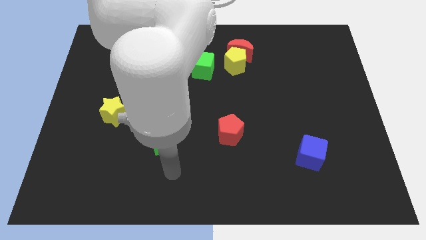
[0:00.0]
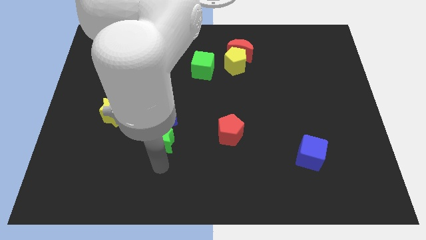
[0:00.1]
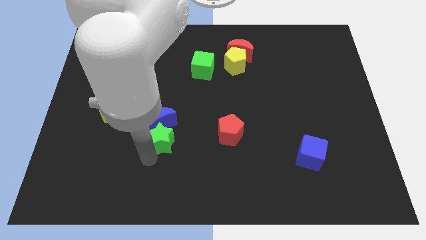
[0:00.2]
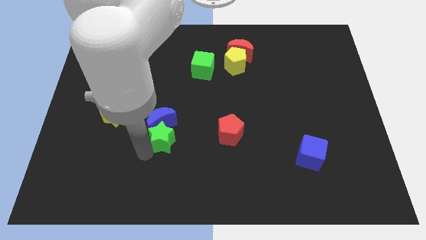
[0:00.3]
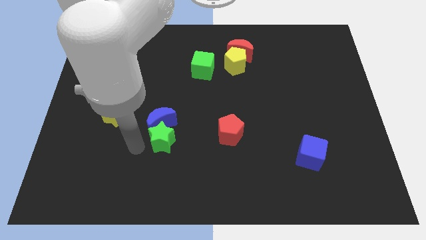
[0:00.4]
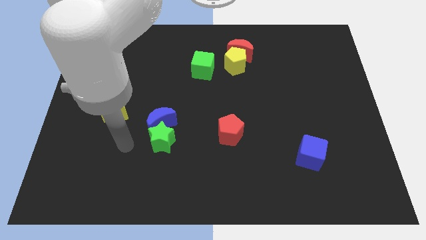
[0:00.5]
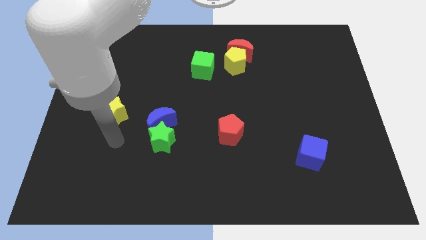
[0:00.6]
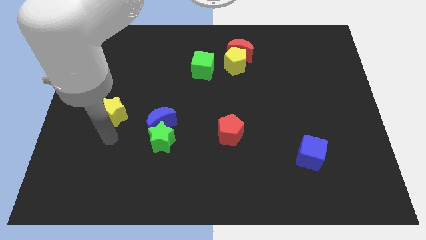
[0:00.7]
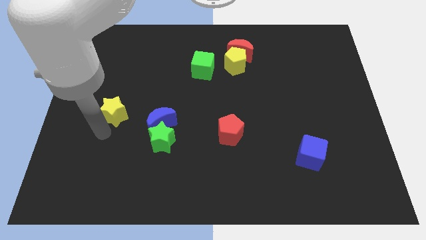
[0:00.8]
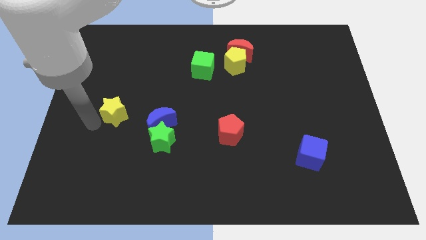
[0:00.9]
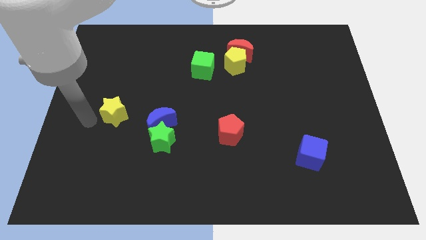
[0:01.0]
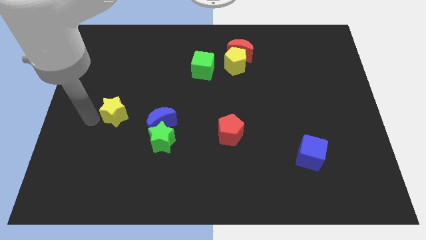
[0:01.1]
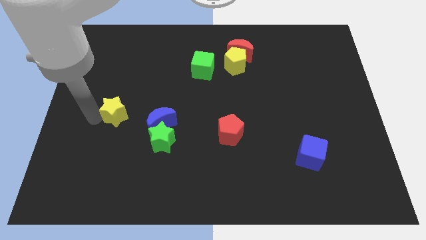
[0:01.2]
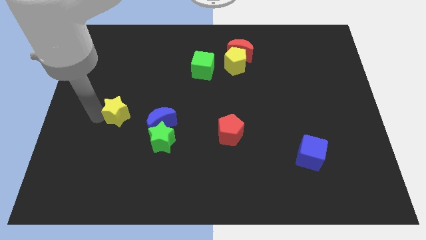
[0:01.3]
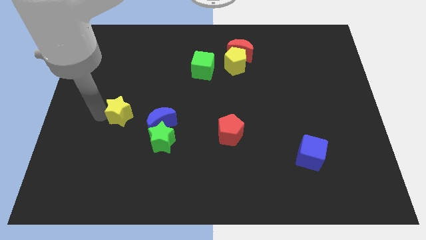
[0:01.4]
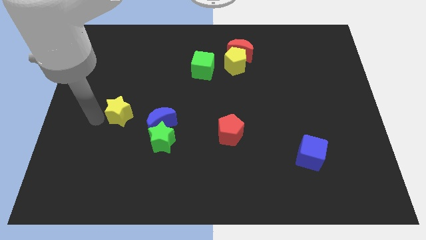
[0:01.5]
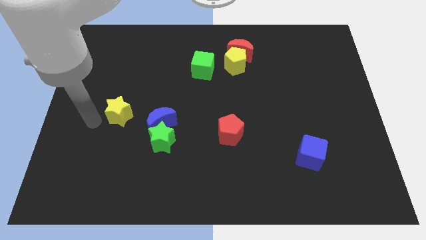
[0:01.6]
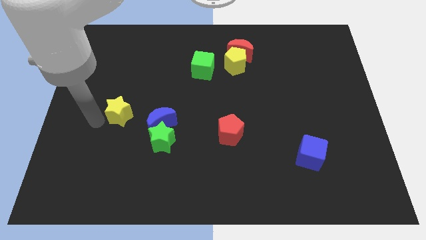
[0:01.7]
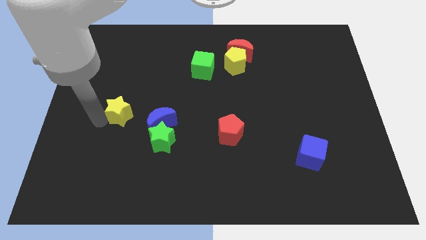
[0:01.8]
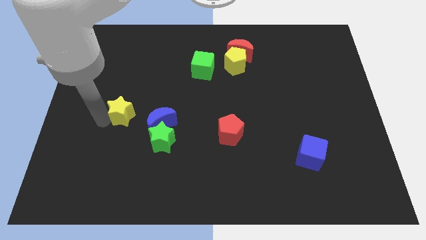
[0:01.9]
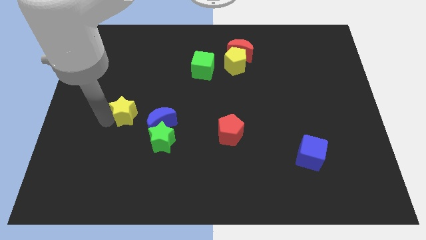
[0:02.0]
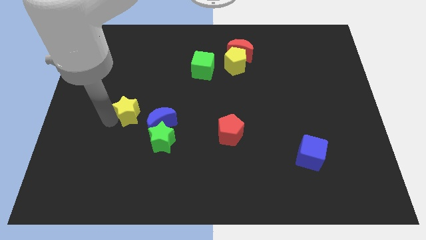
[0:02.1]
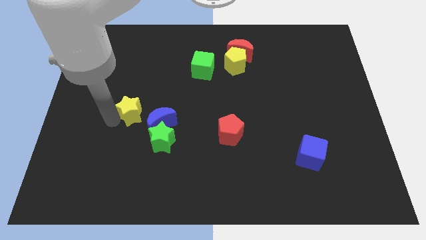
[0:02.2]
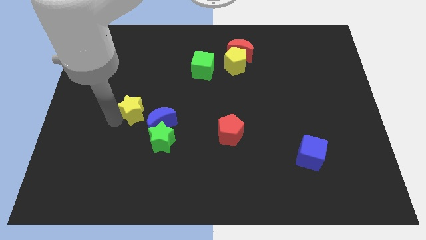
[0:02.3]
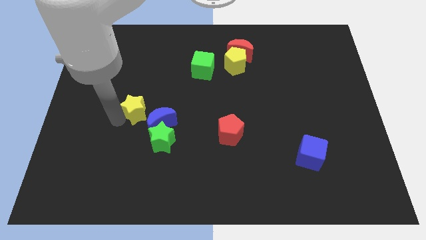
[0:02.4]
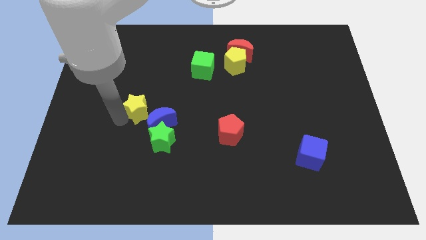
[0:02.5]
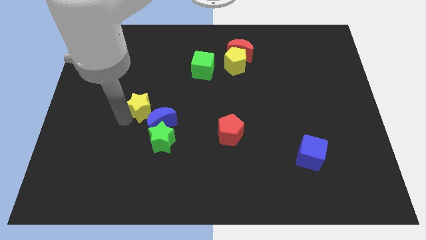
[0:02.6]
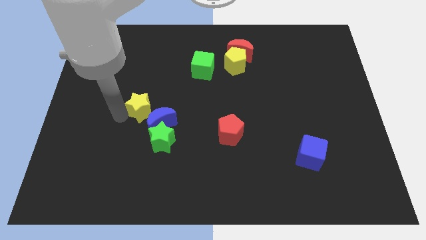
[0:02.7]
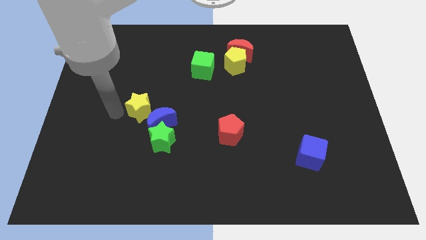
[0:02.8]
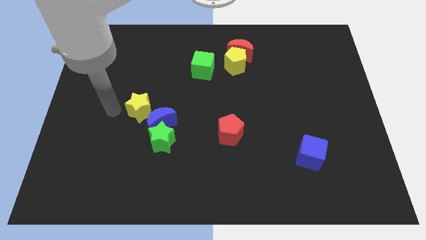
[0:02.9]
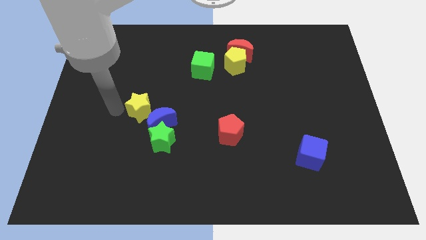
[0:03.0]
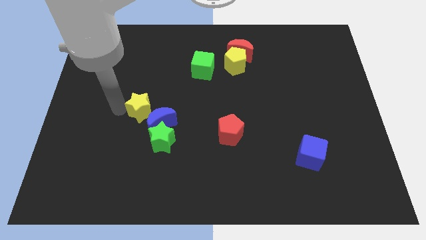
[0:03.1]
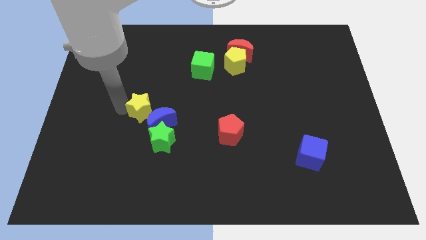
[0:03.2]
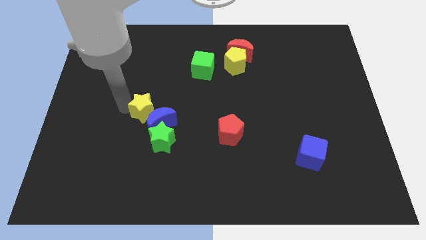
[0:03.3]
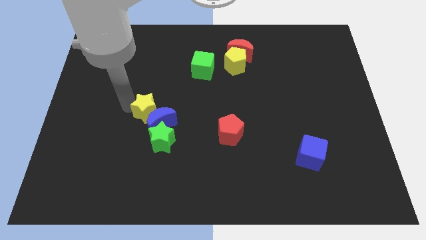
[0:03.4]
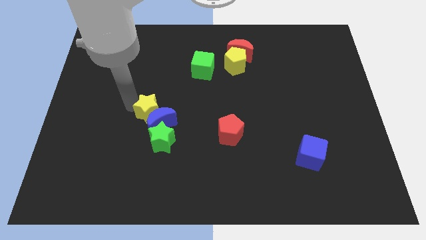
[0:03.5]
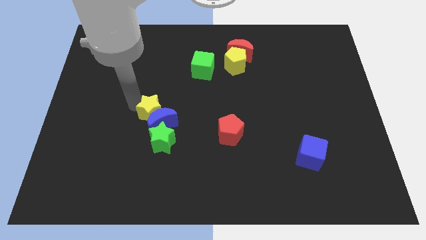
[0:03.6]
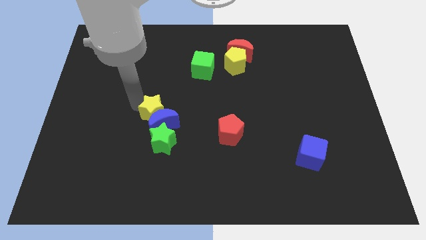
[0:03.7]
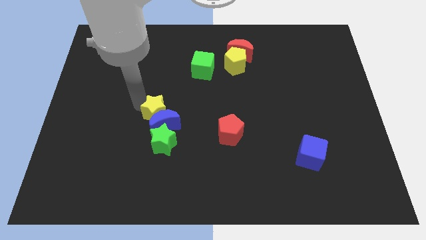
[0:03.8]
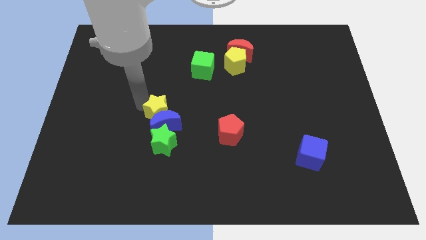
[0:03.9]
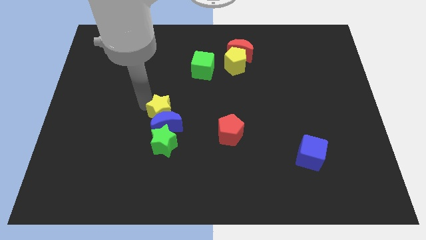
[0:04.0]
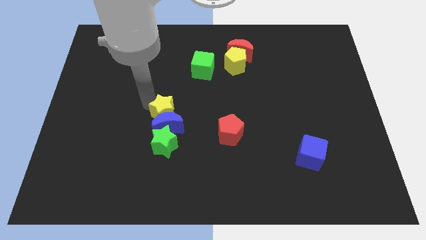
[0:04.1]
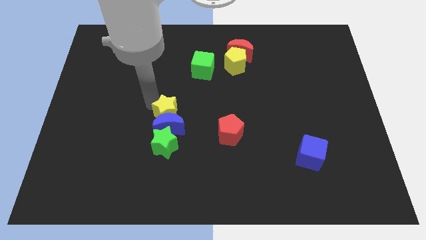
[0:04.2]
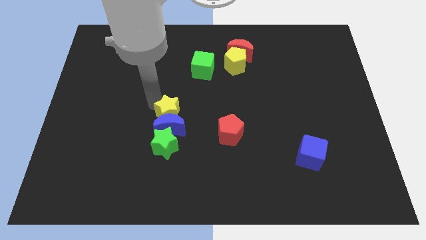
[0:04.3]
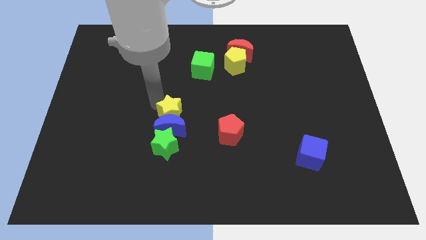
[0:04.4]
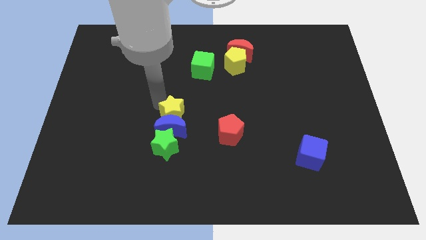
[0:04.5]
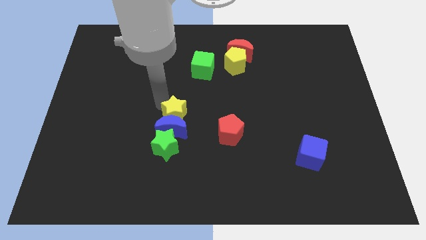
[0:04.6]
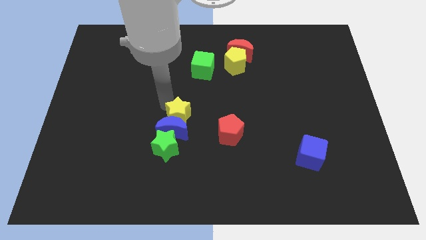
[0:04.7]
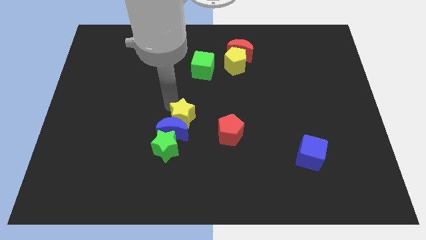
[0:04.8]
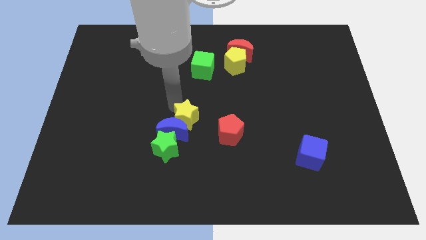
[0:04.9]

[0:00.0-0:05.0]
slide the yellow star to the right of the blue moon

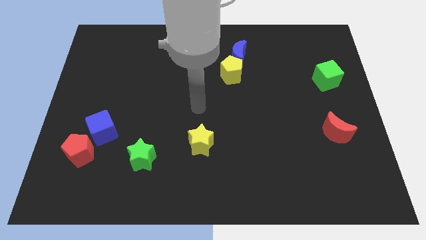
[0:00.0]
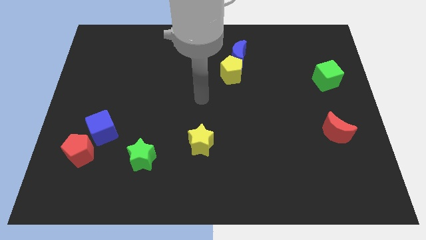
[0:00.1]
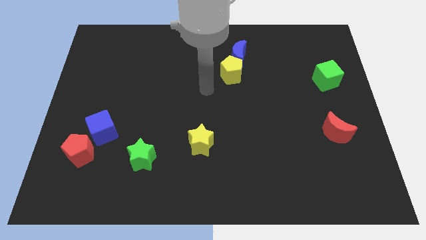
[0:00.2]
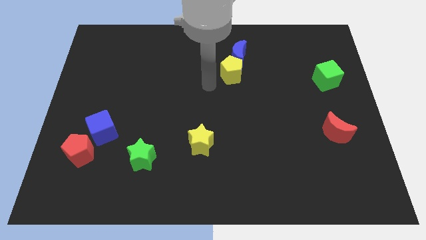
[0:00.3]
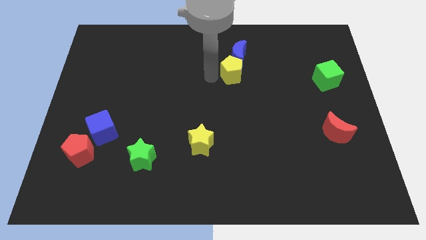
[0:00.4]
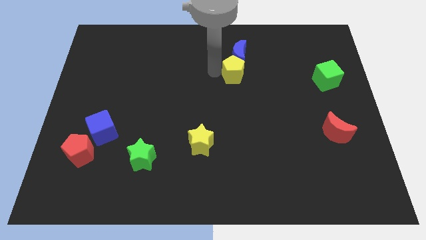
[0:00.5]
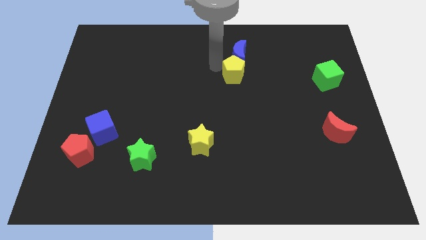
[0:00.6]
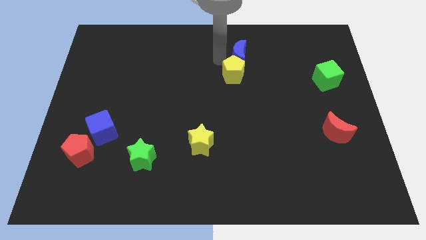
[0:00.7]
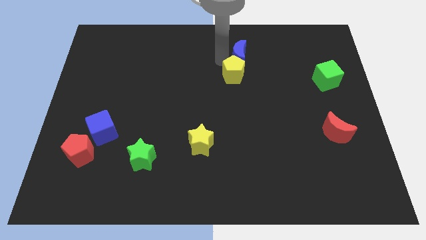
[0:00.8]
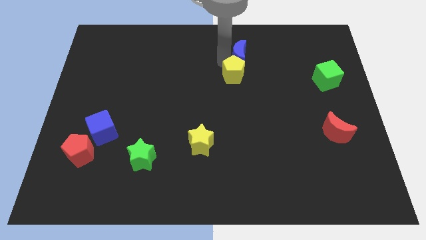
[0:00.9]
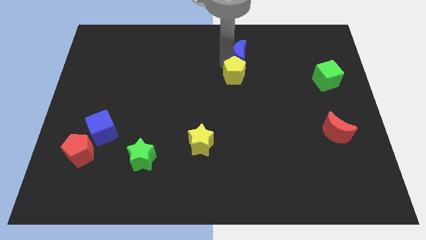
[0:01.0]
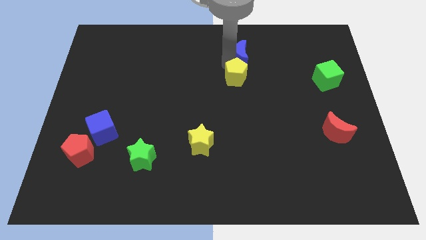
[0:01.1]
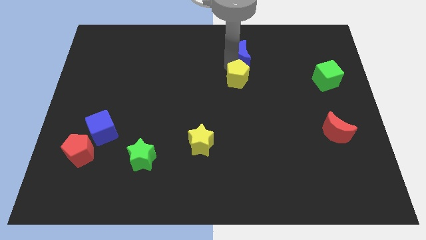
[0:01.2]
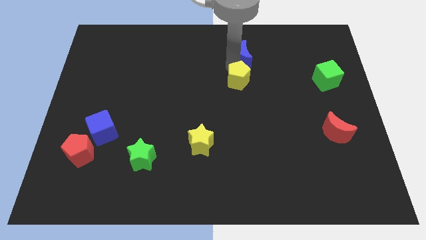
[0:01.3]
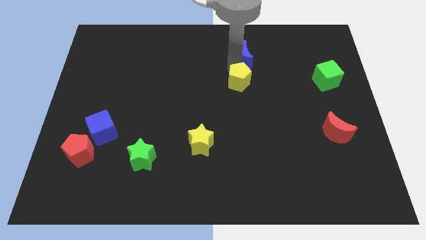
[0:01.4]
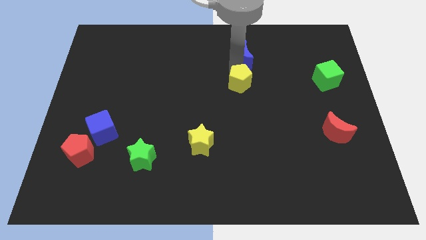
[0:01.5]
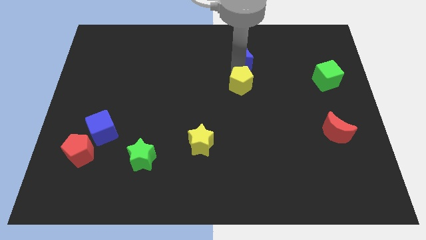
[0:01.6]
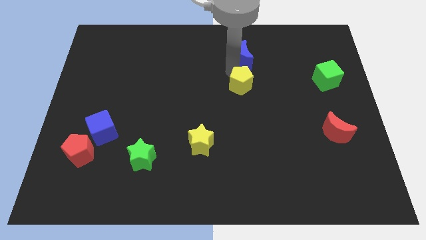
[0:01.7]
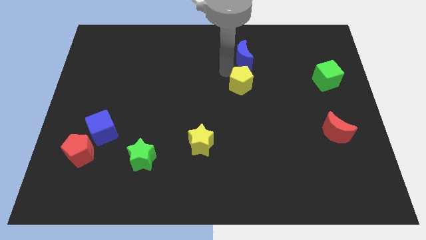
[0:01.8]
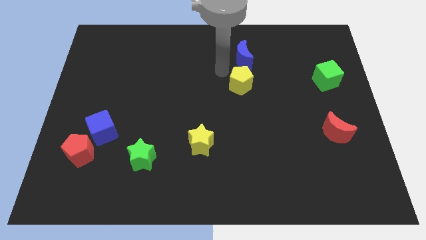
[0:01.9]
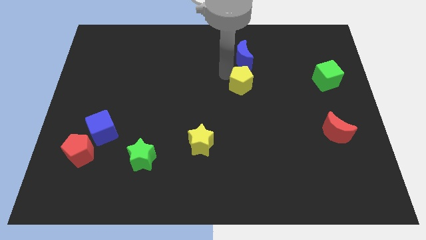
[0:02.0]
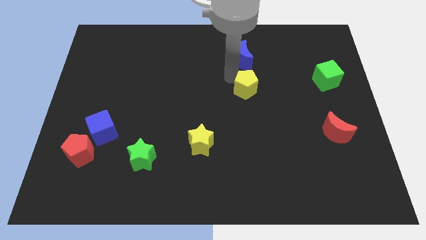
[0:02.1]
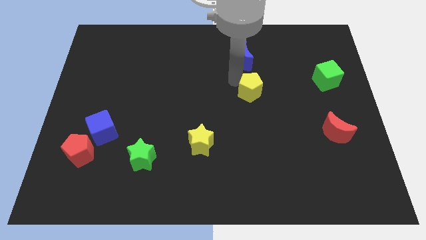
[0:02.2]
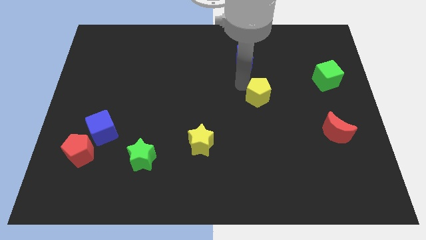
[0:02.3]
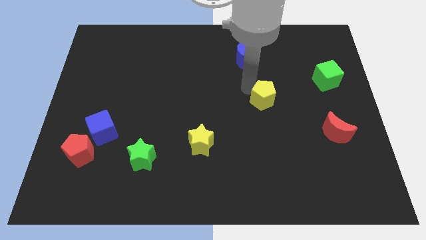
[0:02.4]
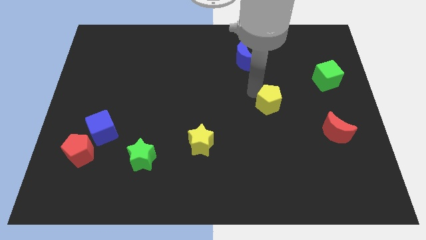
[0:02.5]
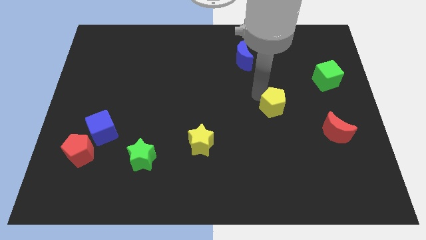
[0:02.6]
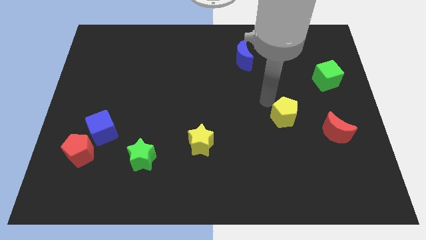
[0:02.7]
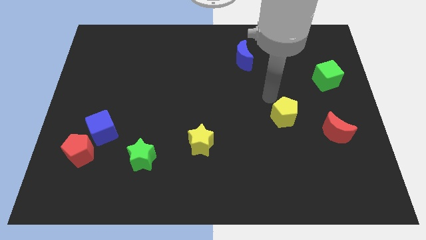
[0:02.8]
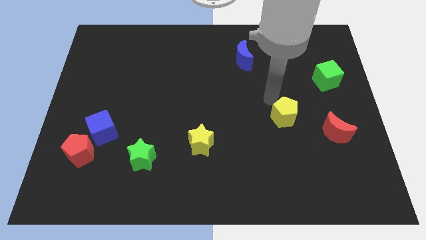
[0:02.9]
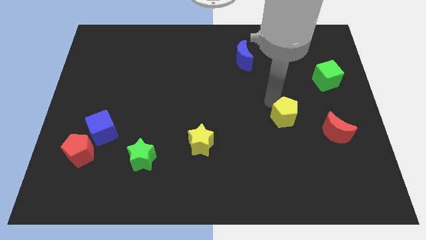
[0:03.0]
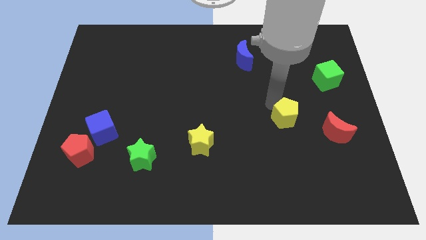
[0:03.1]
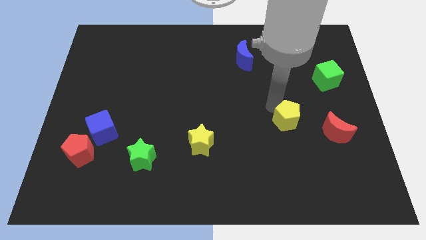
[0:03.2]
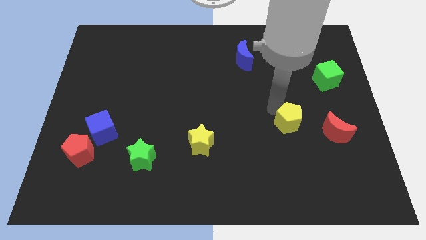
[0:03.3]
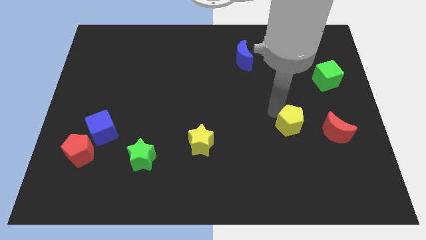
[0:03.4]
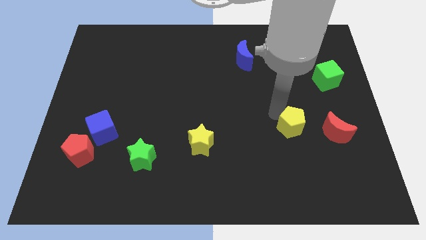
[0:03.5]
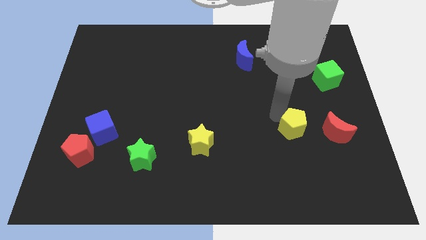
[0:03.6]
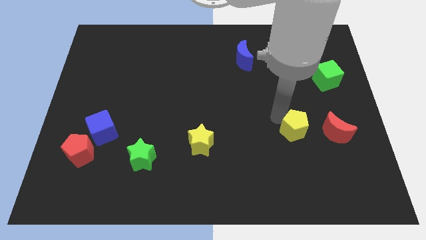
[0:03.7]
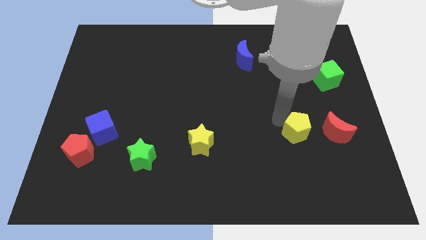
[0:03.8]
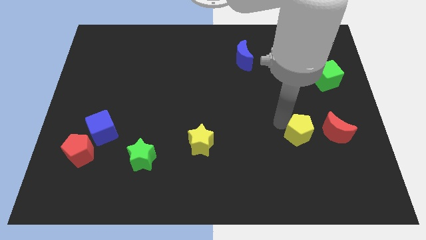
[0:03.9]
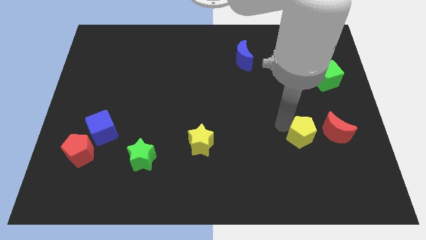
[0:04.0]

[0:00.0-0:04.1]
move the yellow pentagon to the bottom left of the red moon
